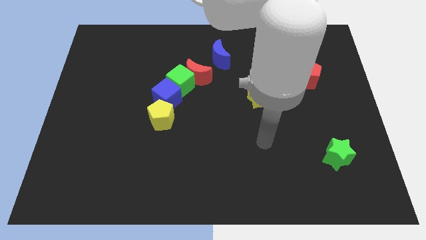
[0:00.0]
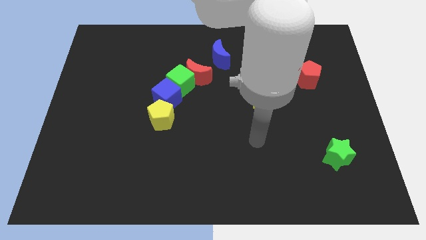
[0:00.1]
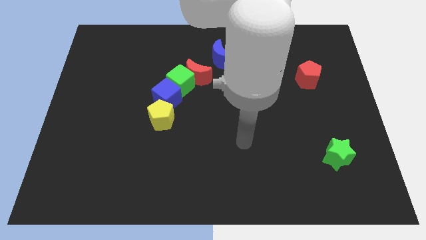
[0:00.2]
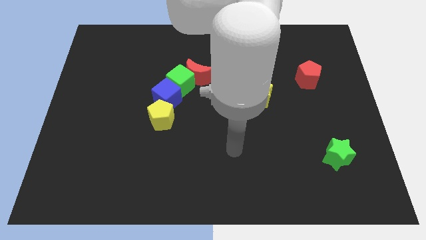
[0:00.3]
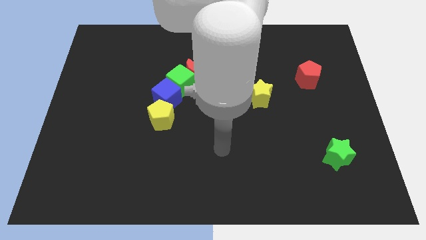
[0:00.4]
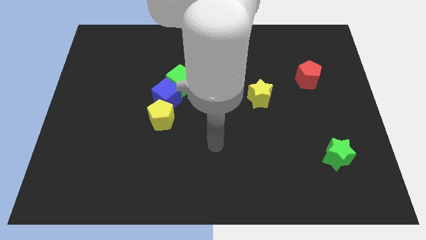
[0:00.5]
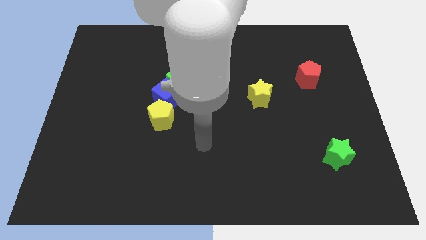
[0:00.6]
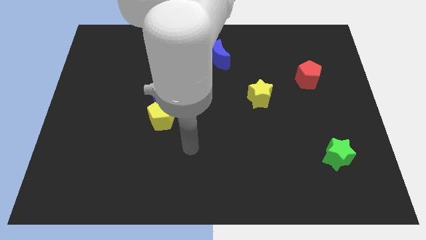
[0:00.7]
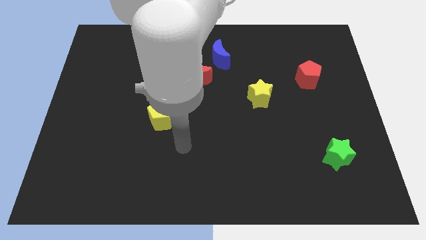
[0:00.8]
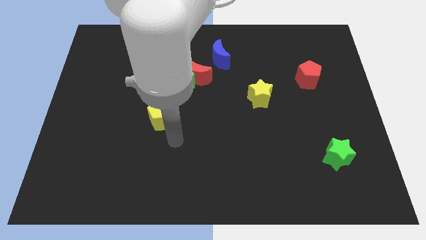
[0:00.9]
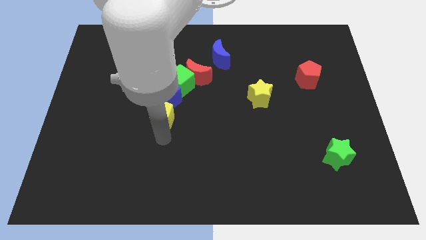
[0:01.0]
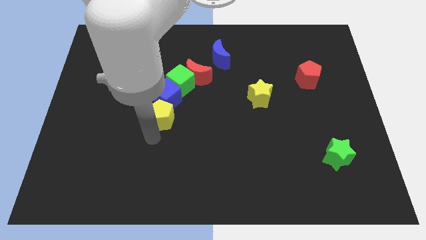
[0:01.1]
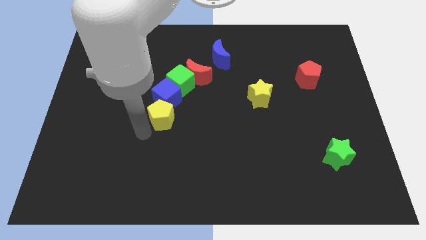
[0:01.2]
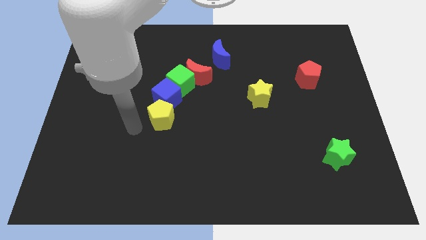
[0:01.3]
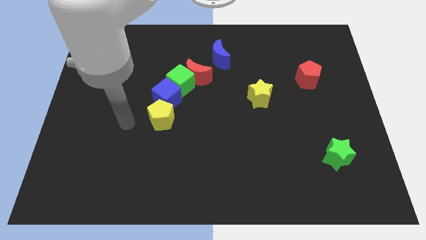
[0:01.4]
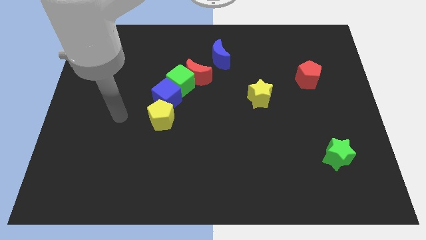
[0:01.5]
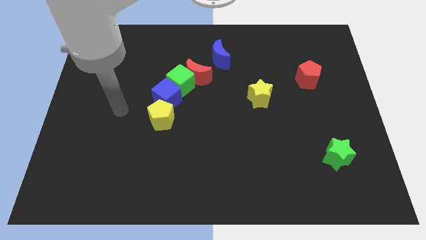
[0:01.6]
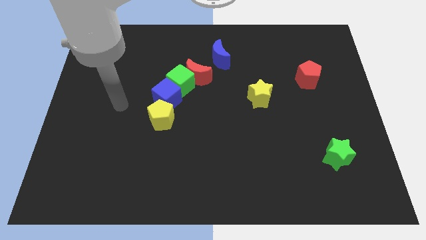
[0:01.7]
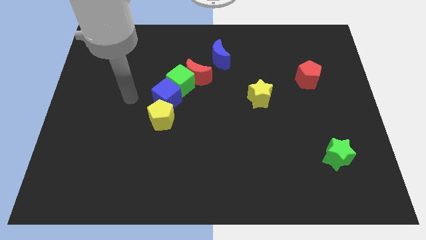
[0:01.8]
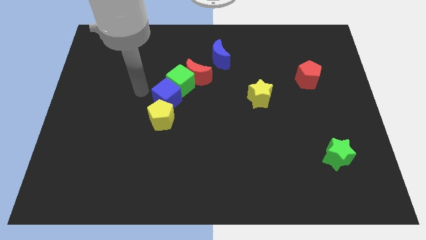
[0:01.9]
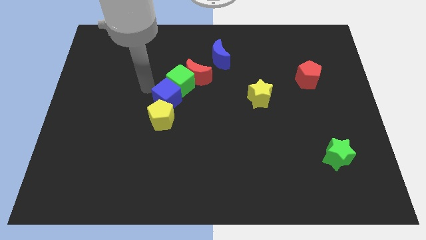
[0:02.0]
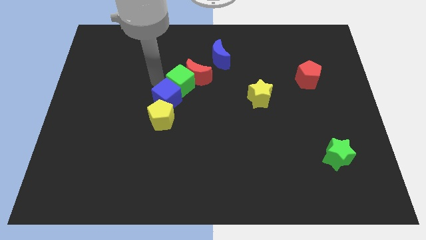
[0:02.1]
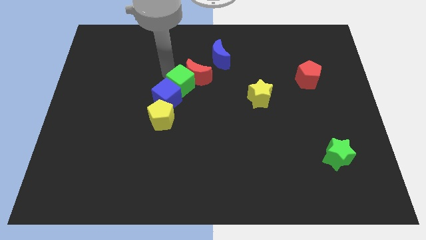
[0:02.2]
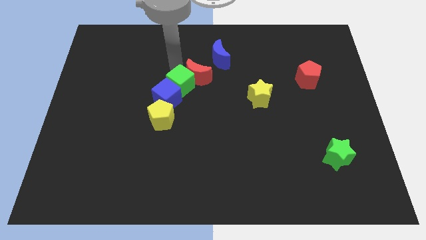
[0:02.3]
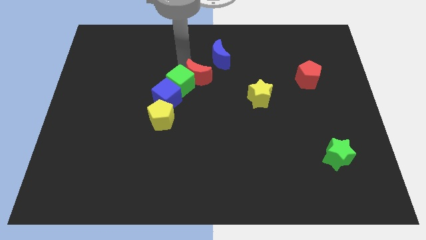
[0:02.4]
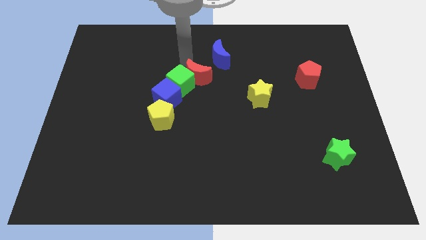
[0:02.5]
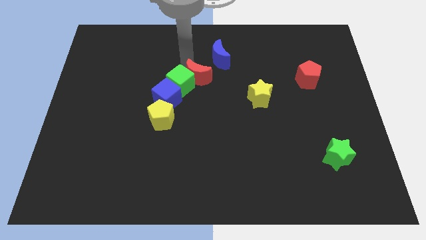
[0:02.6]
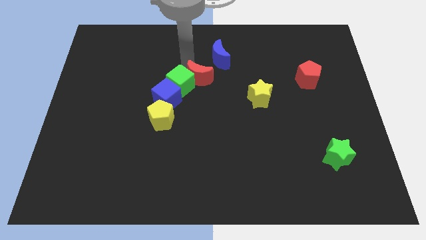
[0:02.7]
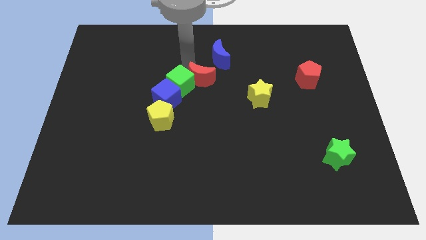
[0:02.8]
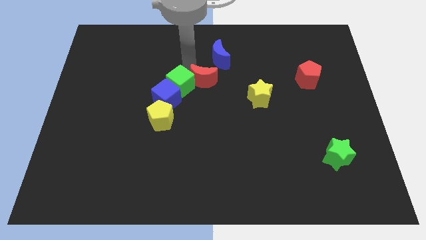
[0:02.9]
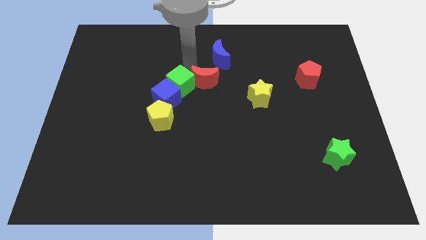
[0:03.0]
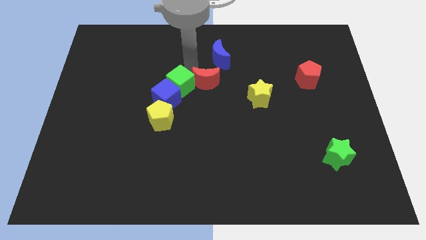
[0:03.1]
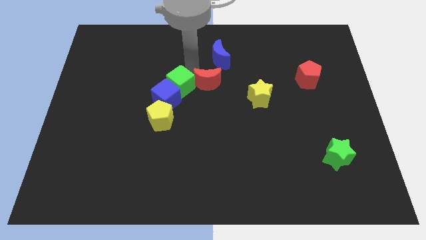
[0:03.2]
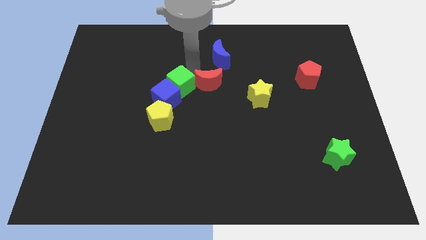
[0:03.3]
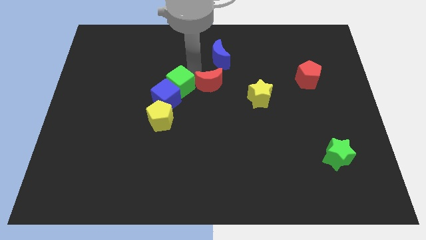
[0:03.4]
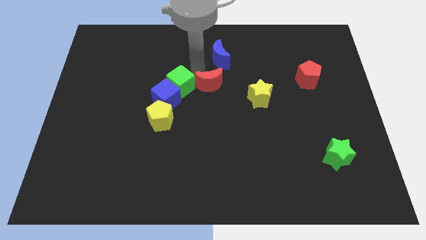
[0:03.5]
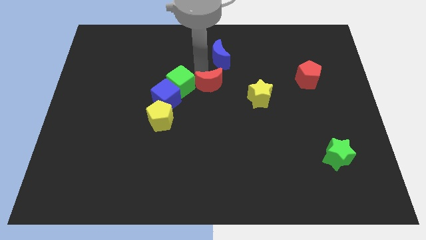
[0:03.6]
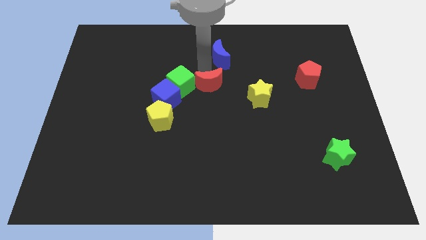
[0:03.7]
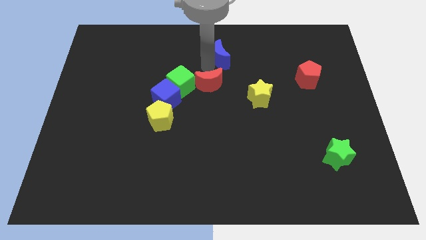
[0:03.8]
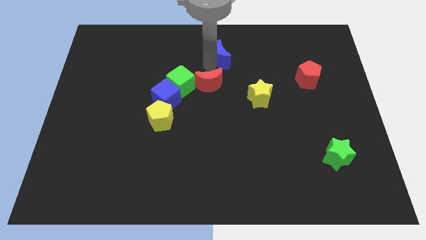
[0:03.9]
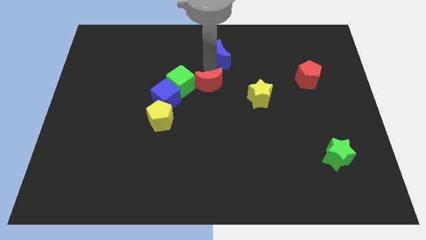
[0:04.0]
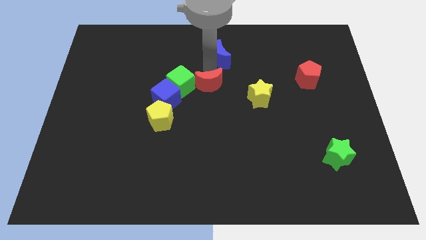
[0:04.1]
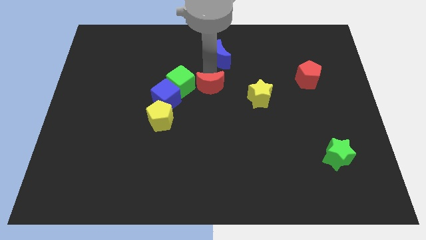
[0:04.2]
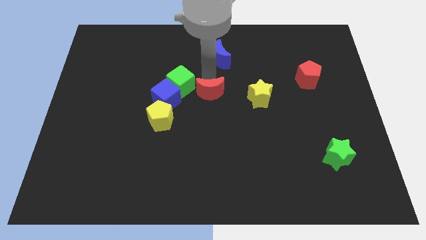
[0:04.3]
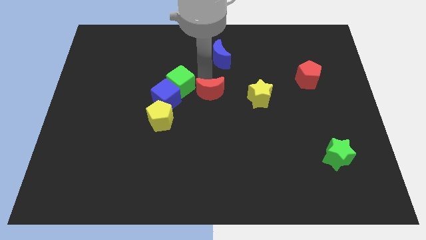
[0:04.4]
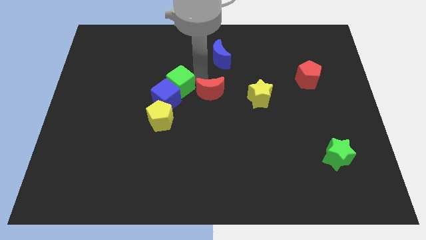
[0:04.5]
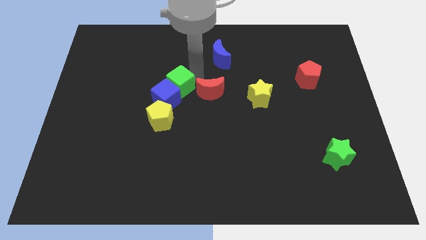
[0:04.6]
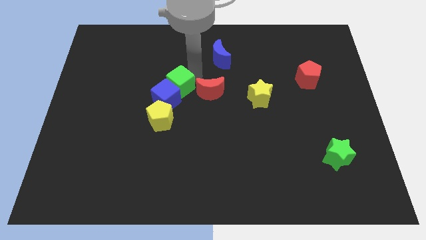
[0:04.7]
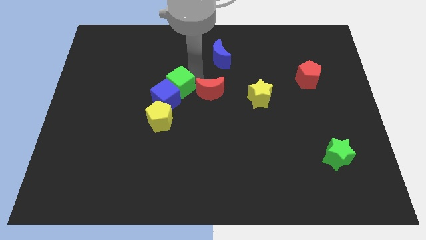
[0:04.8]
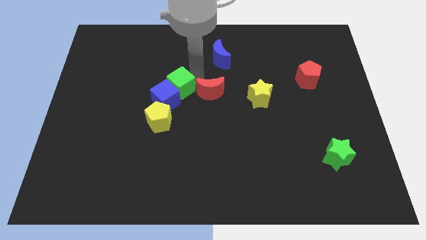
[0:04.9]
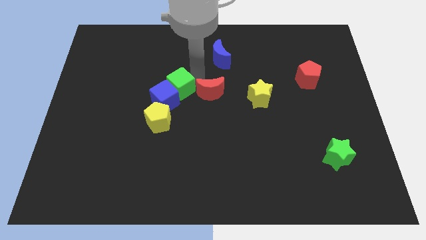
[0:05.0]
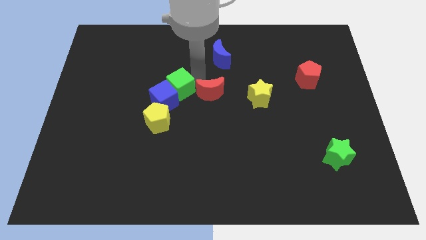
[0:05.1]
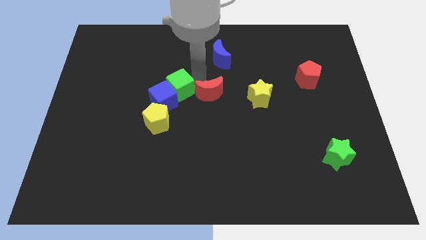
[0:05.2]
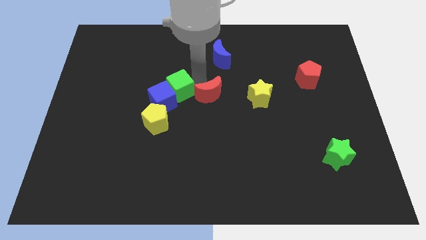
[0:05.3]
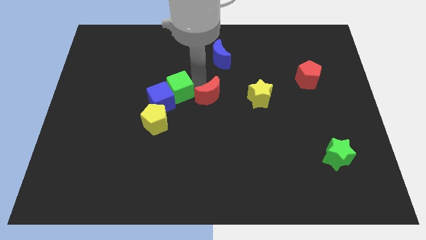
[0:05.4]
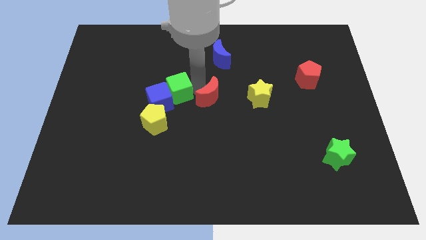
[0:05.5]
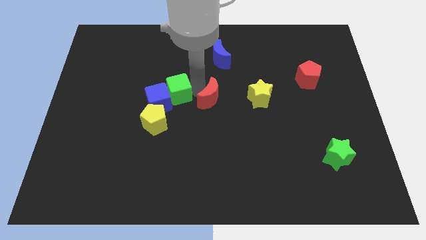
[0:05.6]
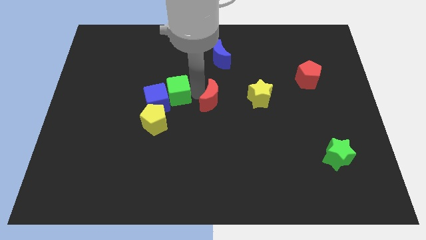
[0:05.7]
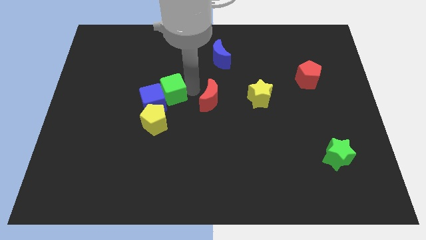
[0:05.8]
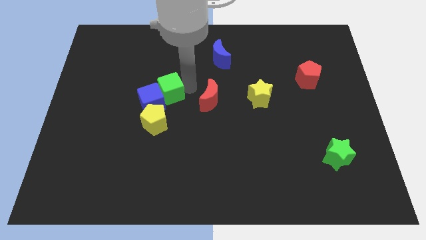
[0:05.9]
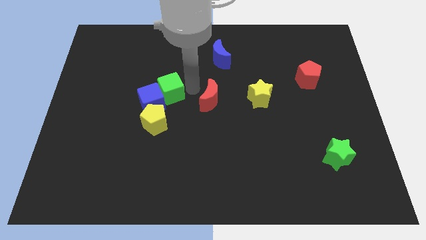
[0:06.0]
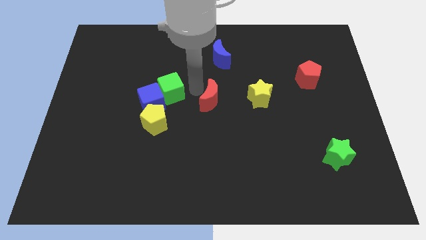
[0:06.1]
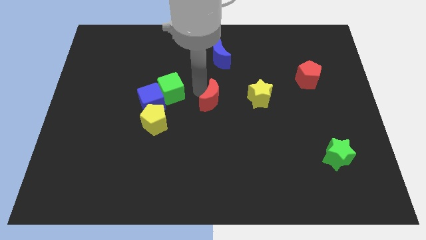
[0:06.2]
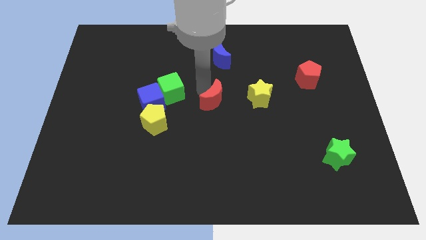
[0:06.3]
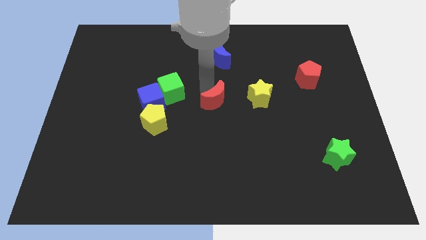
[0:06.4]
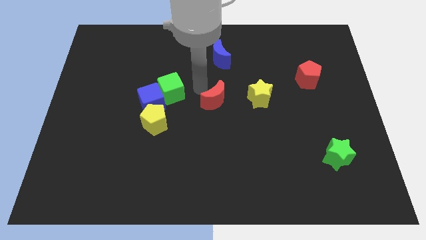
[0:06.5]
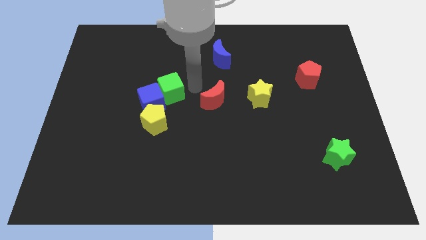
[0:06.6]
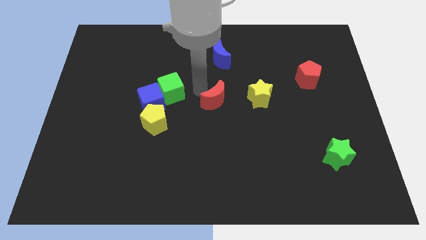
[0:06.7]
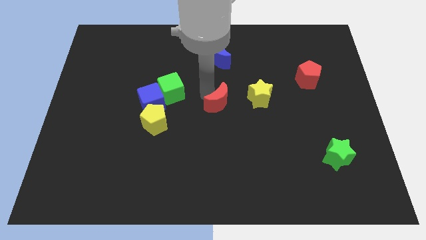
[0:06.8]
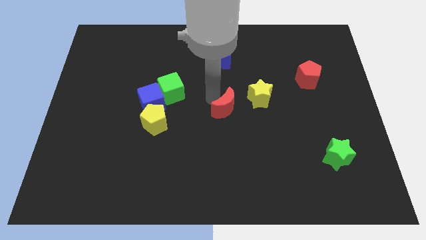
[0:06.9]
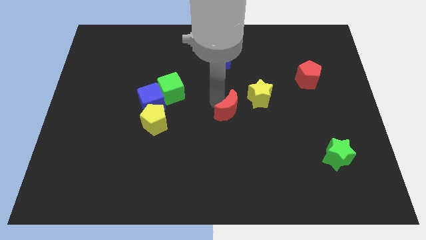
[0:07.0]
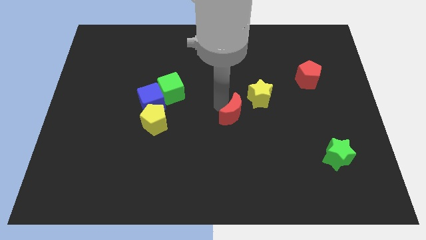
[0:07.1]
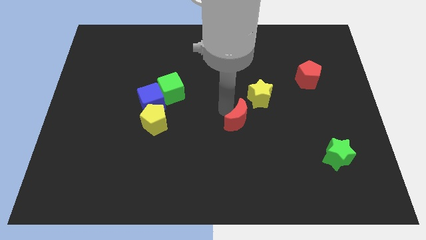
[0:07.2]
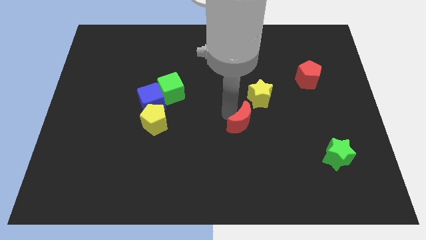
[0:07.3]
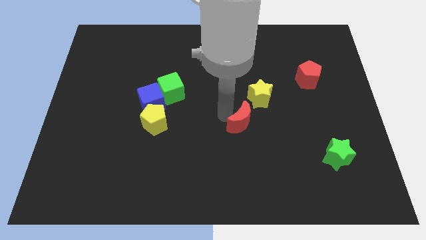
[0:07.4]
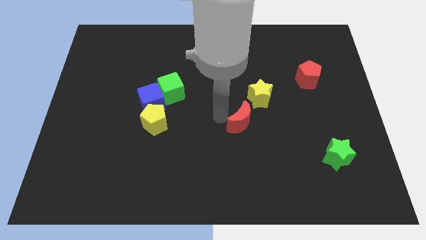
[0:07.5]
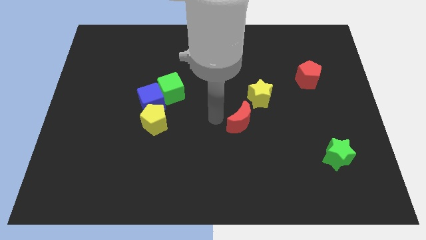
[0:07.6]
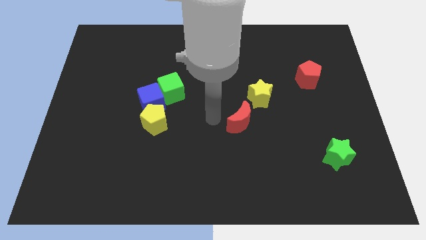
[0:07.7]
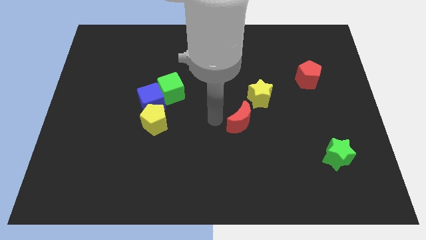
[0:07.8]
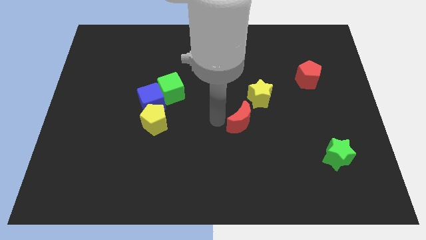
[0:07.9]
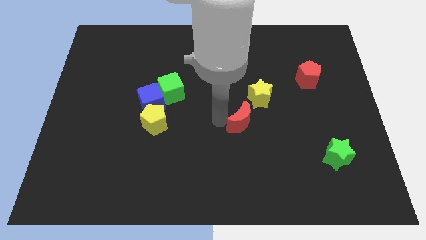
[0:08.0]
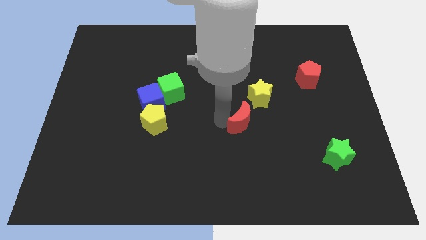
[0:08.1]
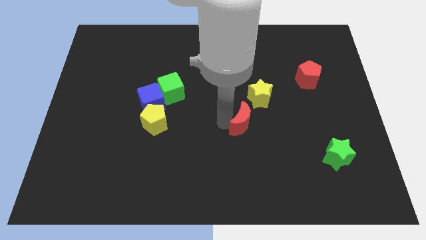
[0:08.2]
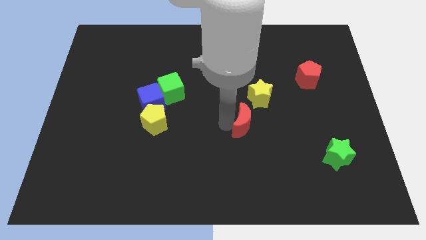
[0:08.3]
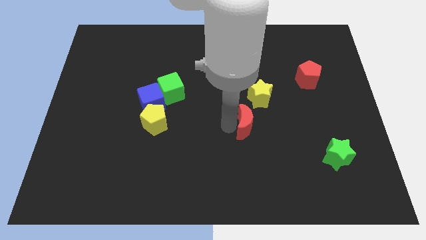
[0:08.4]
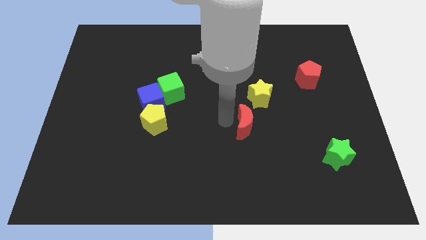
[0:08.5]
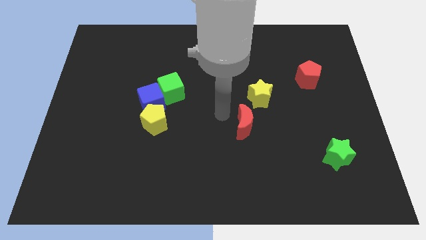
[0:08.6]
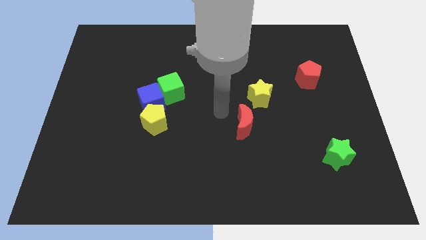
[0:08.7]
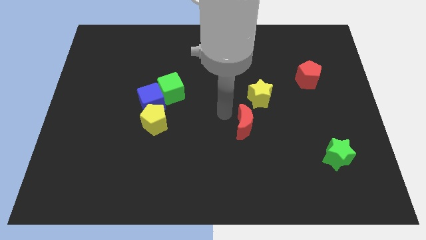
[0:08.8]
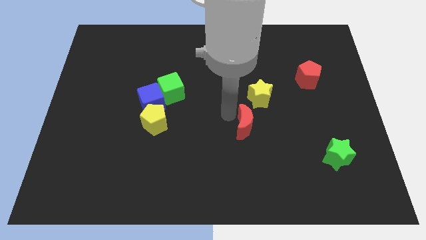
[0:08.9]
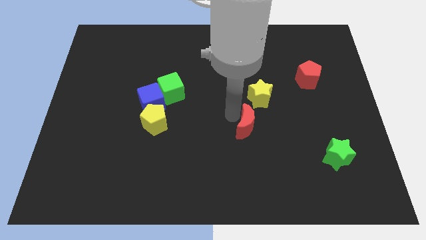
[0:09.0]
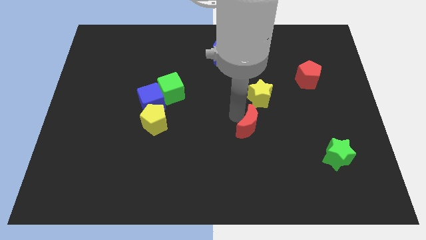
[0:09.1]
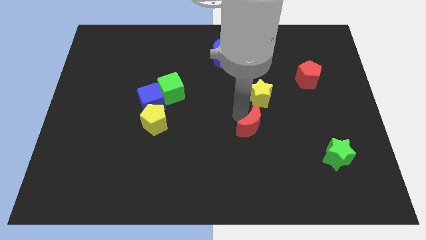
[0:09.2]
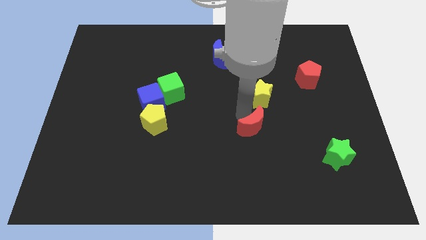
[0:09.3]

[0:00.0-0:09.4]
move the red moon downwards and right diagonally
